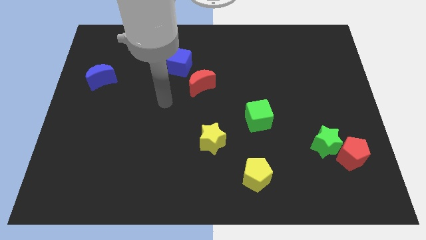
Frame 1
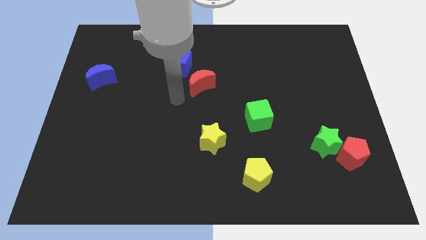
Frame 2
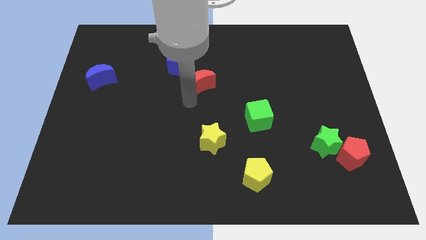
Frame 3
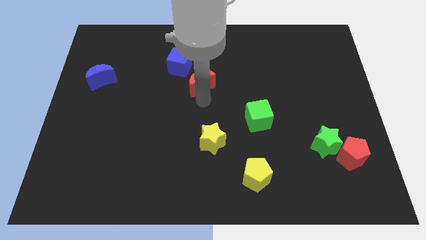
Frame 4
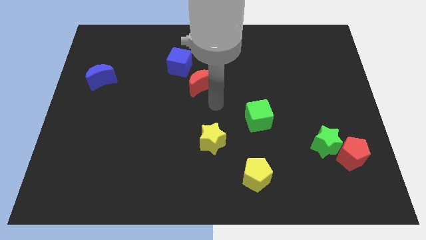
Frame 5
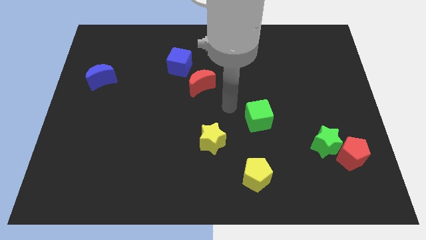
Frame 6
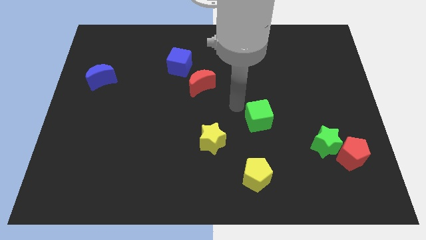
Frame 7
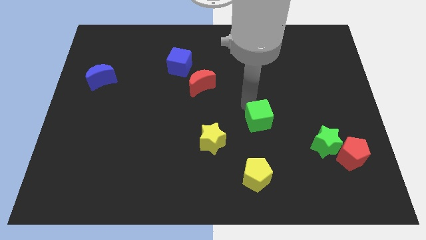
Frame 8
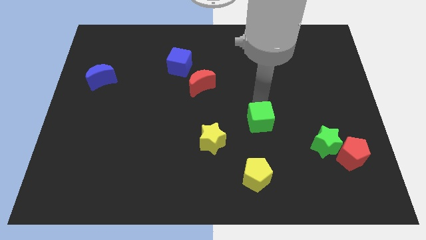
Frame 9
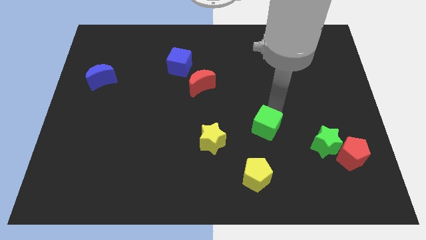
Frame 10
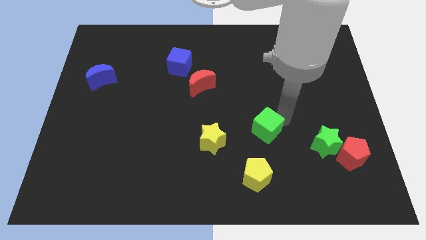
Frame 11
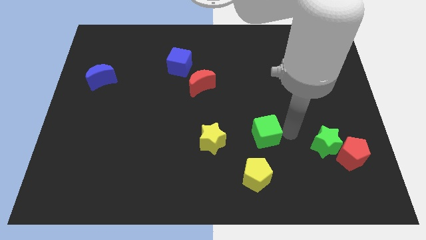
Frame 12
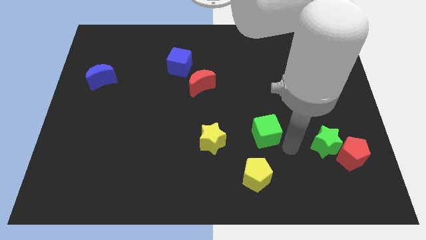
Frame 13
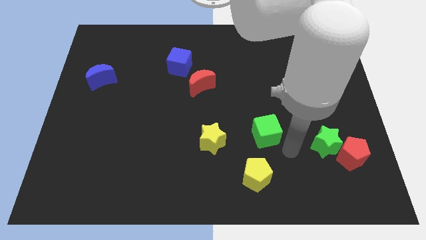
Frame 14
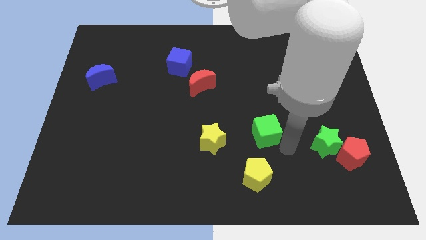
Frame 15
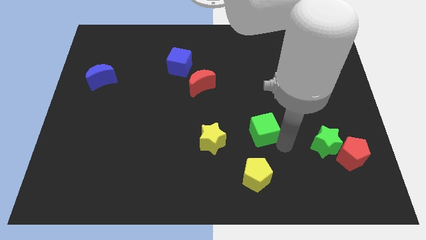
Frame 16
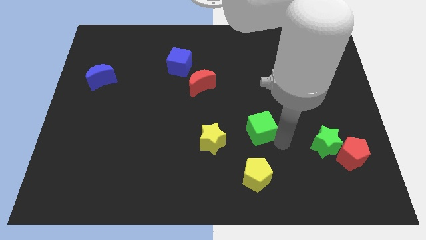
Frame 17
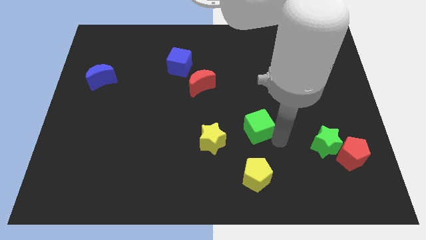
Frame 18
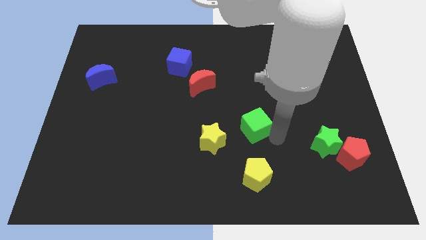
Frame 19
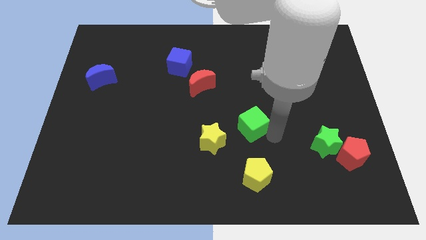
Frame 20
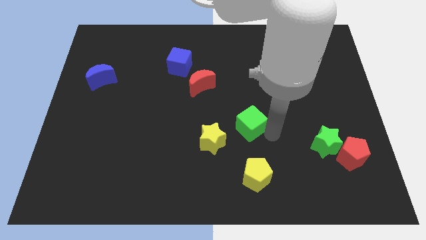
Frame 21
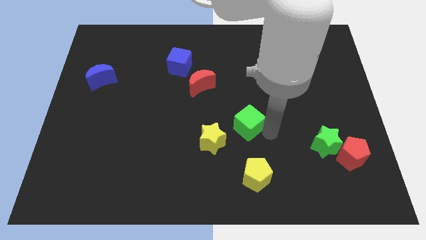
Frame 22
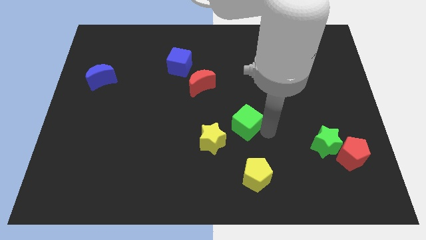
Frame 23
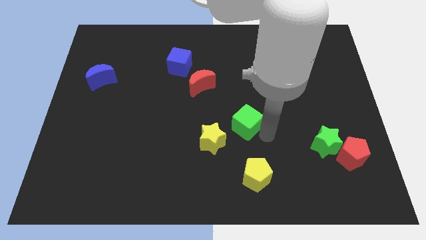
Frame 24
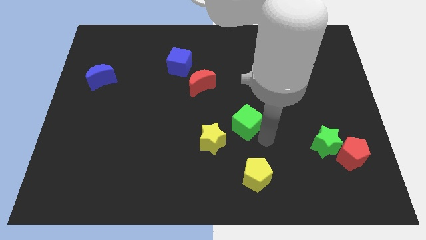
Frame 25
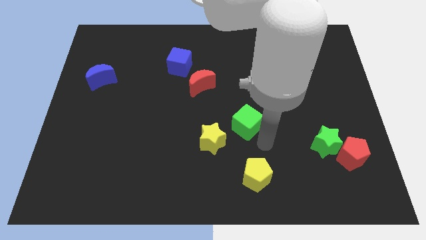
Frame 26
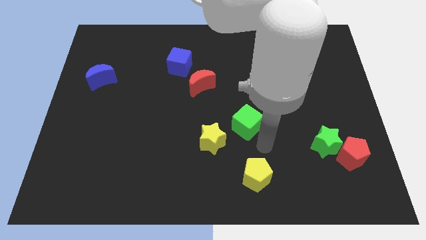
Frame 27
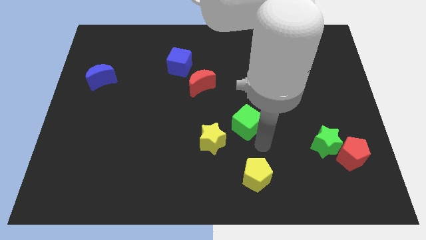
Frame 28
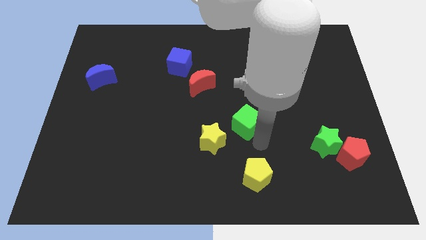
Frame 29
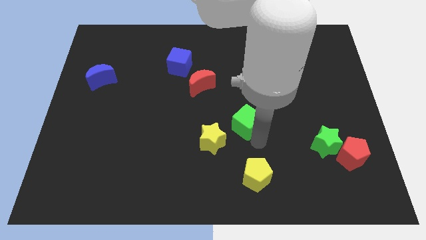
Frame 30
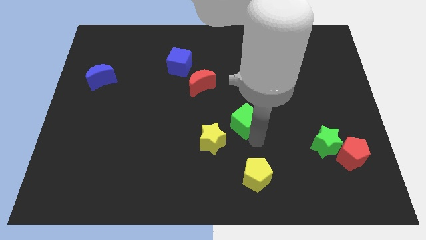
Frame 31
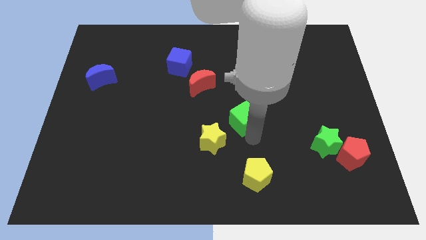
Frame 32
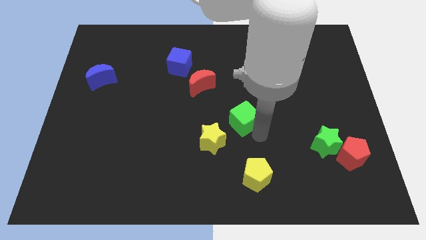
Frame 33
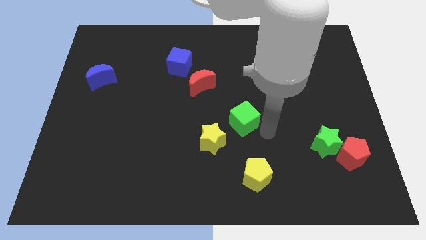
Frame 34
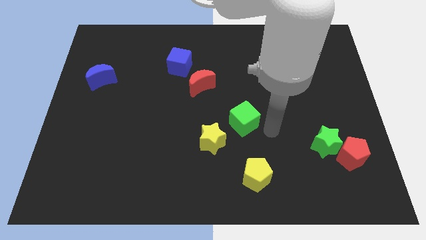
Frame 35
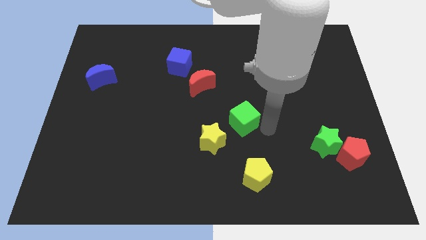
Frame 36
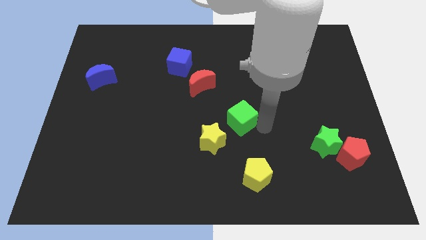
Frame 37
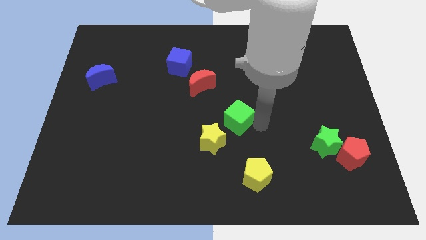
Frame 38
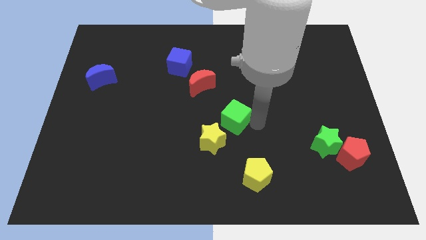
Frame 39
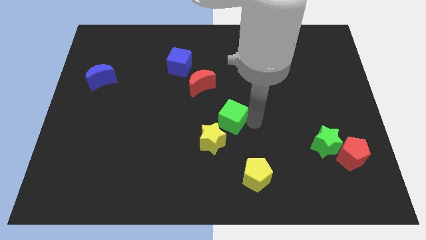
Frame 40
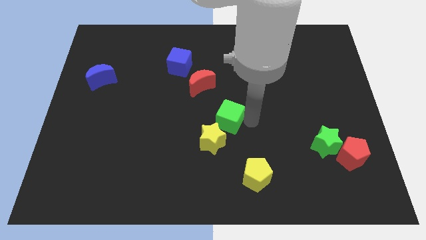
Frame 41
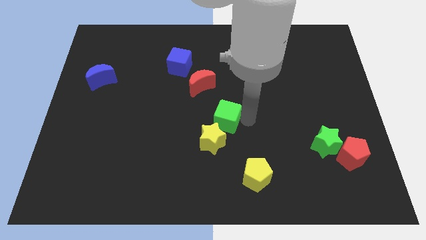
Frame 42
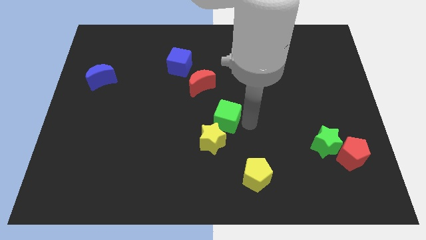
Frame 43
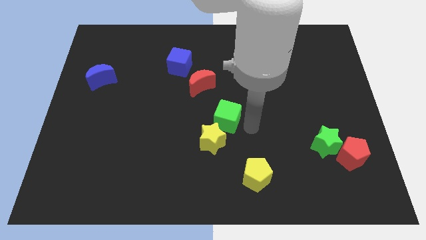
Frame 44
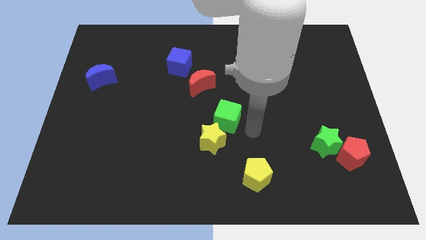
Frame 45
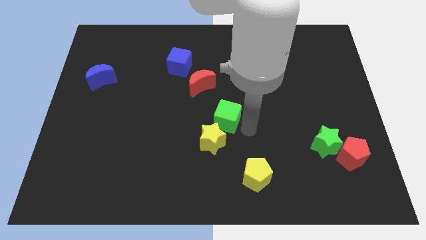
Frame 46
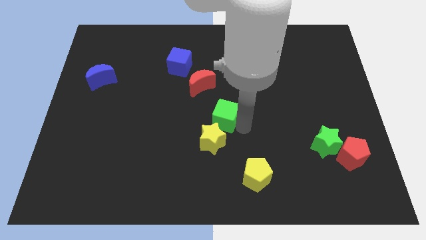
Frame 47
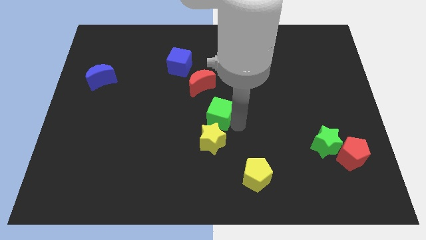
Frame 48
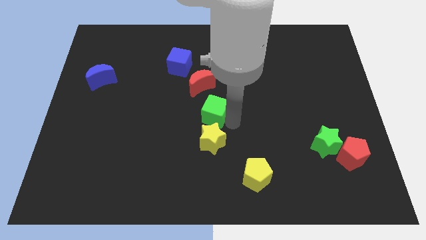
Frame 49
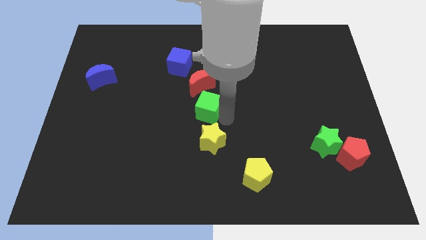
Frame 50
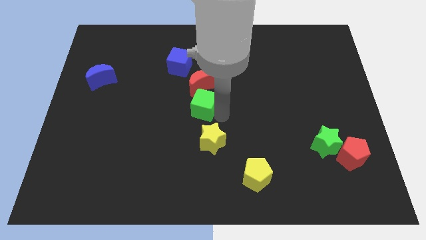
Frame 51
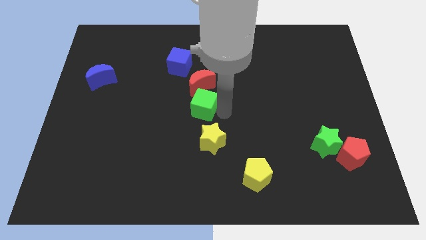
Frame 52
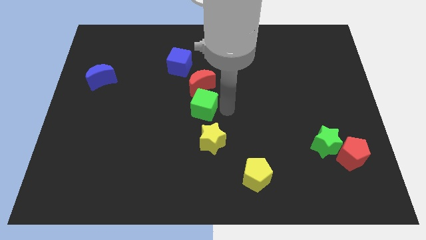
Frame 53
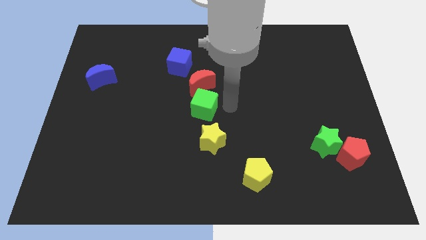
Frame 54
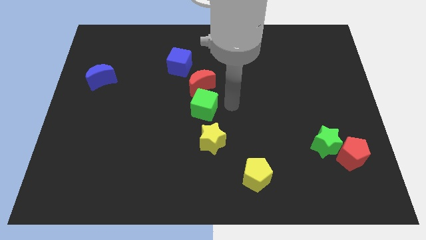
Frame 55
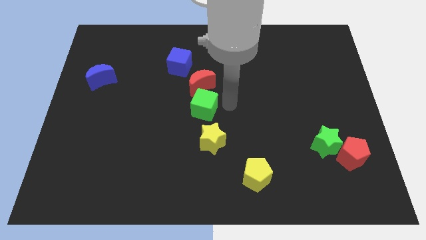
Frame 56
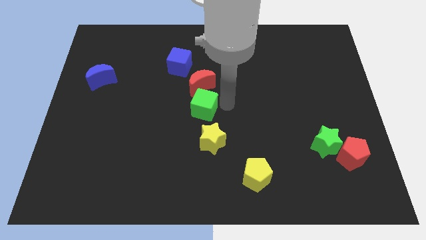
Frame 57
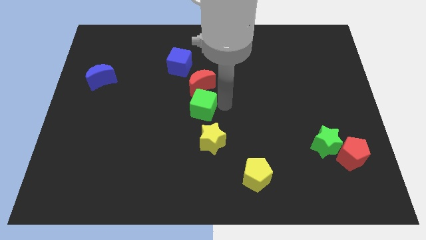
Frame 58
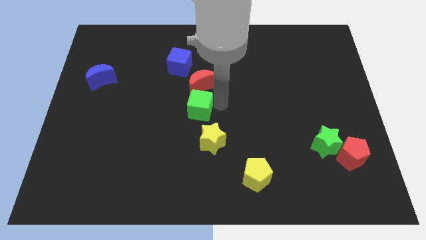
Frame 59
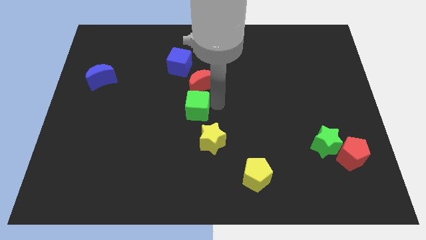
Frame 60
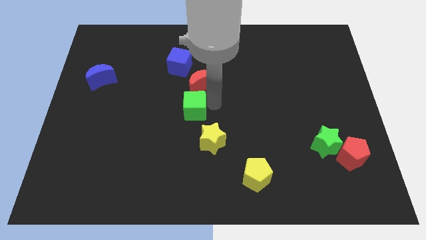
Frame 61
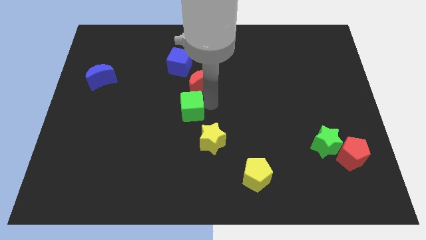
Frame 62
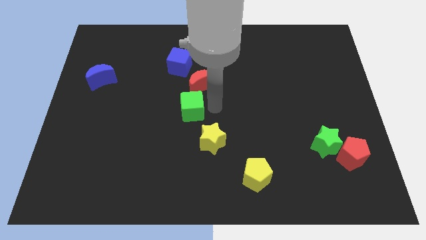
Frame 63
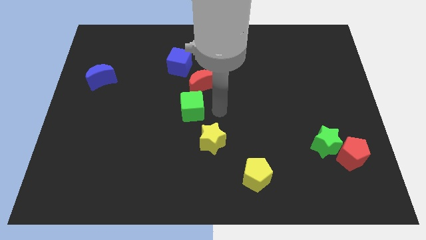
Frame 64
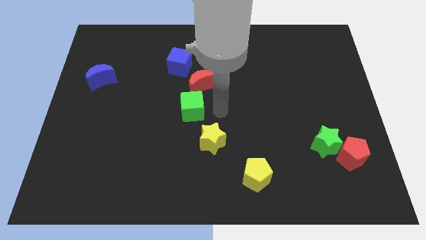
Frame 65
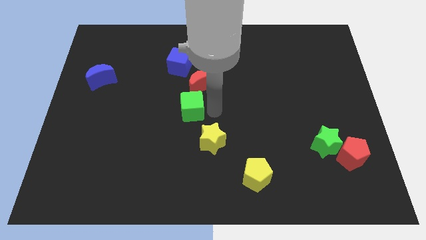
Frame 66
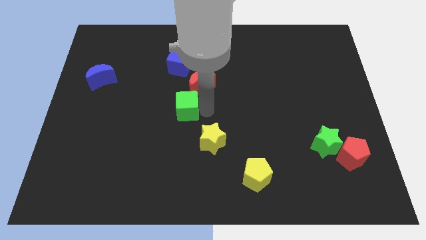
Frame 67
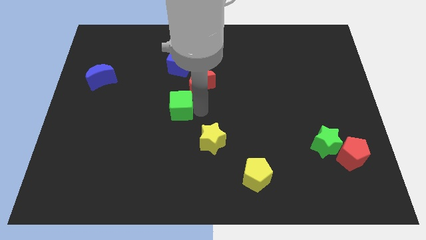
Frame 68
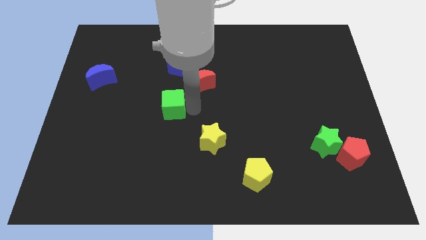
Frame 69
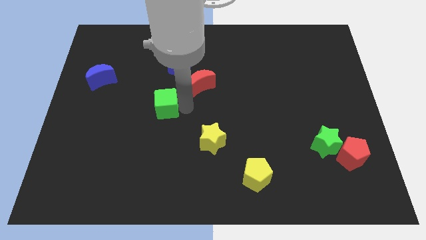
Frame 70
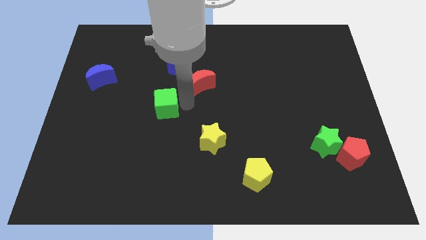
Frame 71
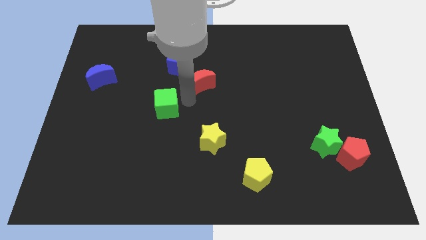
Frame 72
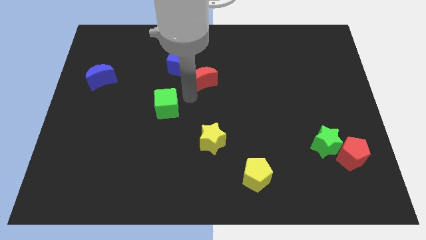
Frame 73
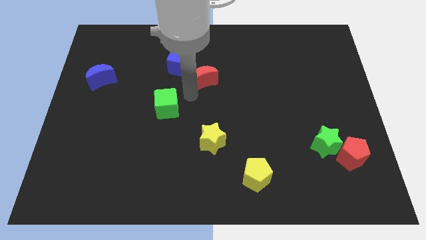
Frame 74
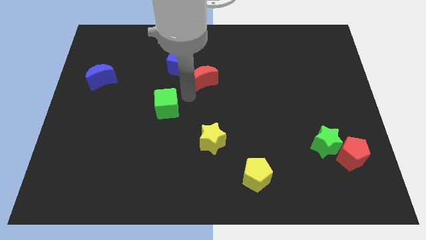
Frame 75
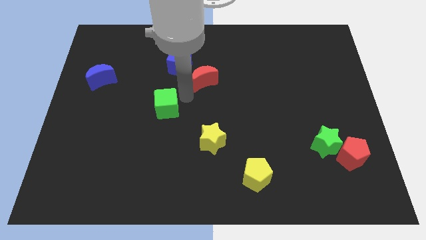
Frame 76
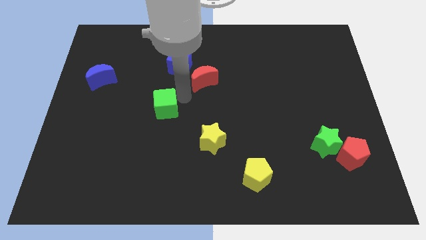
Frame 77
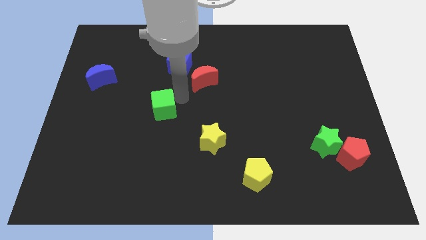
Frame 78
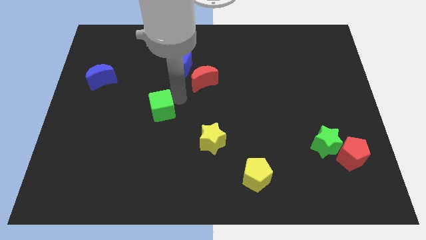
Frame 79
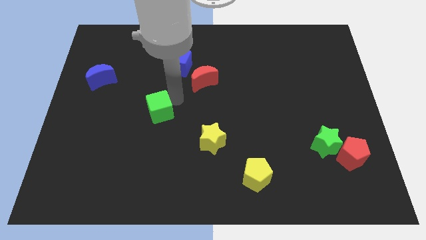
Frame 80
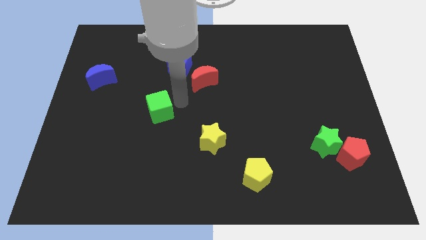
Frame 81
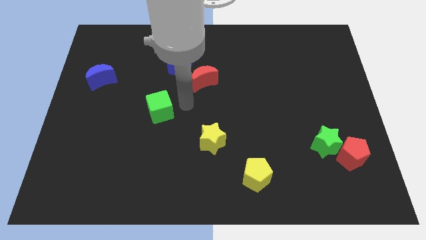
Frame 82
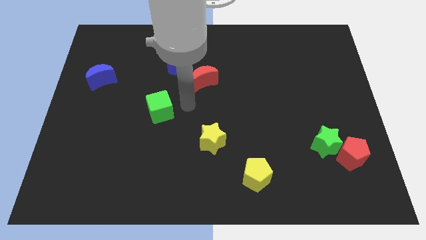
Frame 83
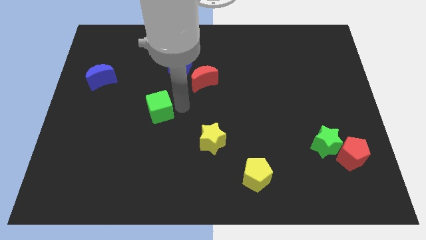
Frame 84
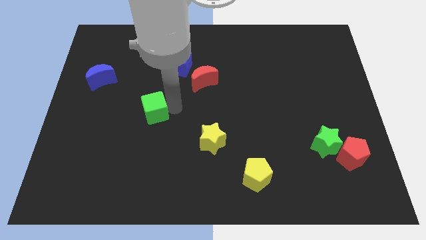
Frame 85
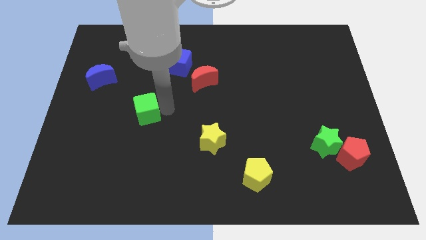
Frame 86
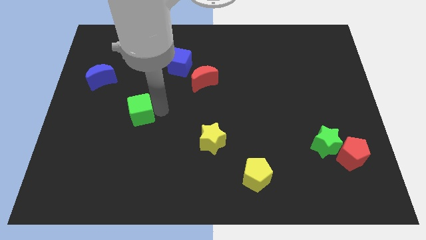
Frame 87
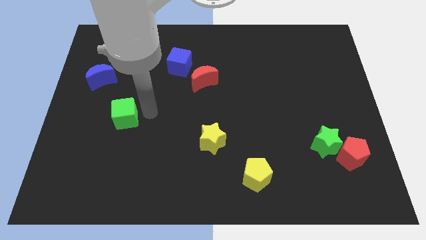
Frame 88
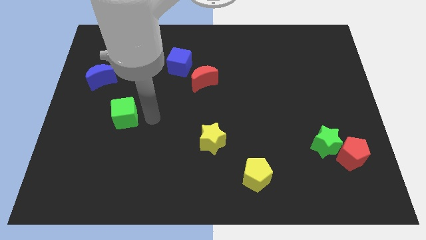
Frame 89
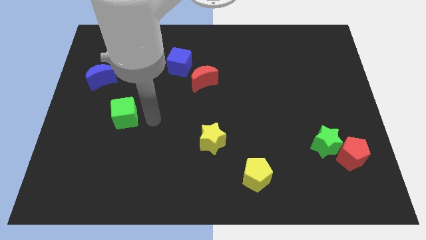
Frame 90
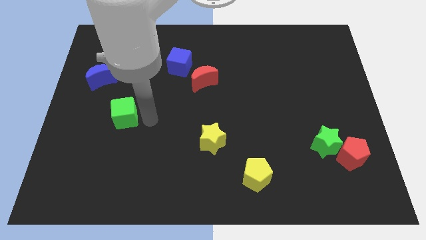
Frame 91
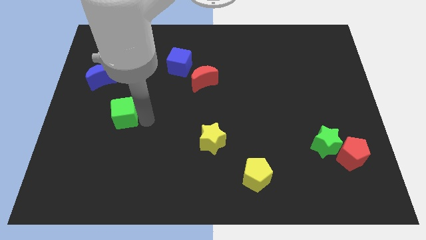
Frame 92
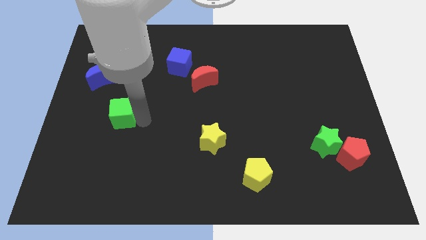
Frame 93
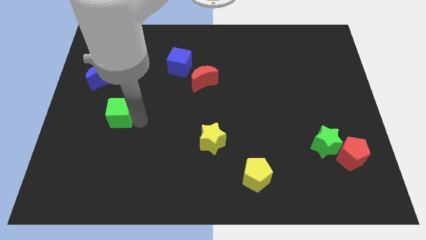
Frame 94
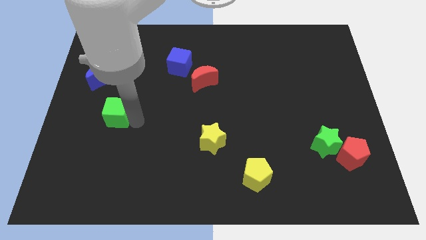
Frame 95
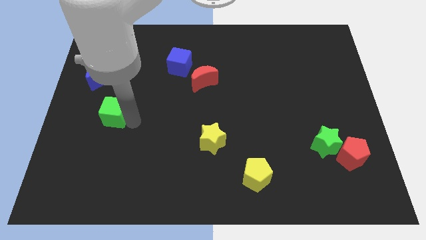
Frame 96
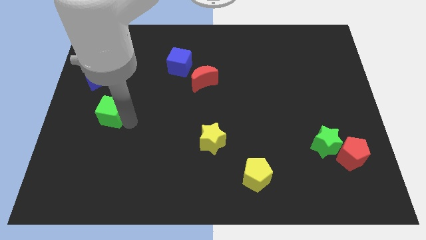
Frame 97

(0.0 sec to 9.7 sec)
move the green cube below the blue moon
